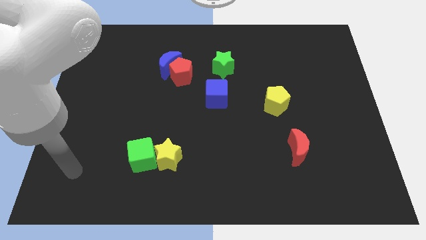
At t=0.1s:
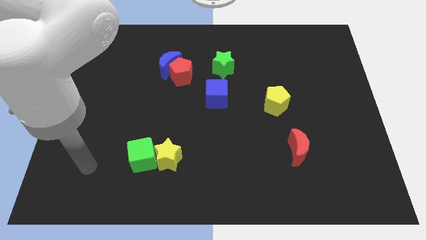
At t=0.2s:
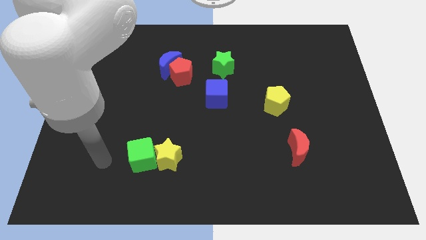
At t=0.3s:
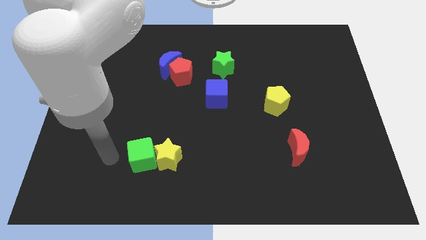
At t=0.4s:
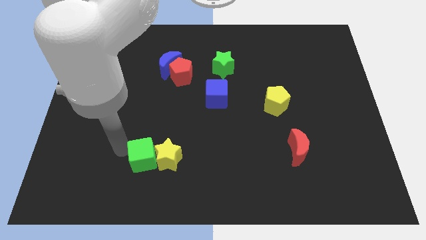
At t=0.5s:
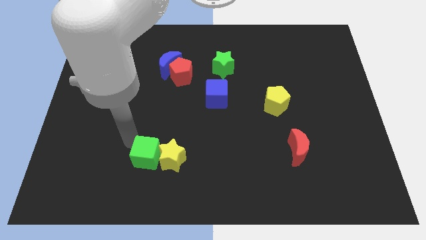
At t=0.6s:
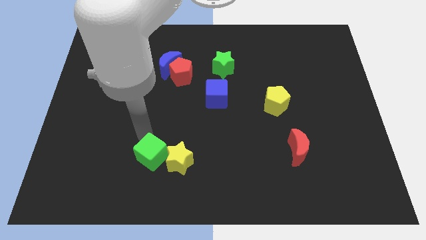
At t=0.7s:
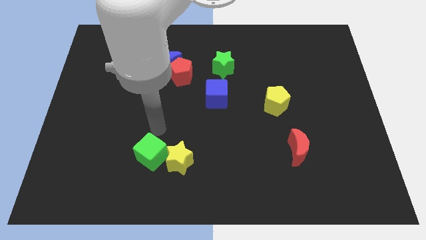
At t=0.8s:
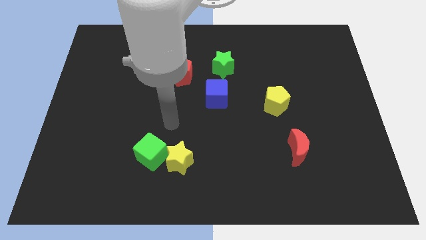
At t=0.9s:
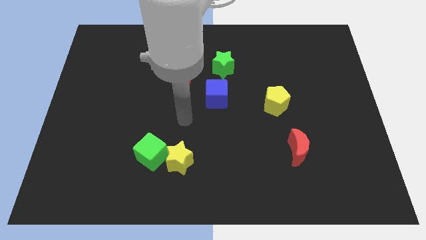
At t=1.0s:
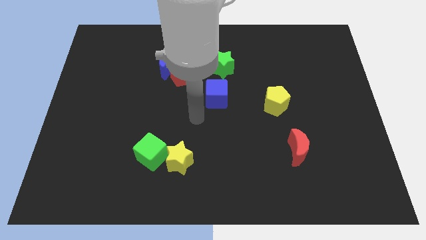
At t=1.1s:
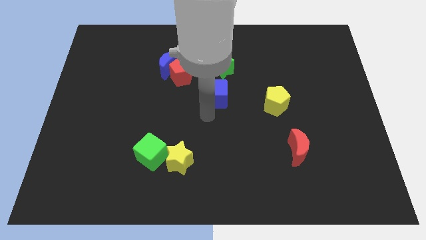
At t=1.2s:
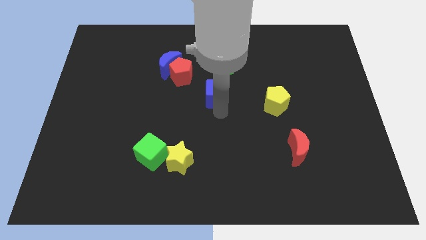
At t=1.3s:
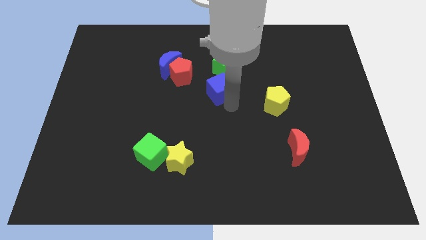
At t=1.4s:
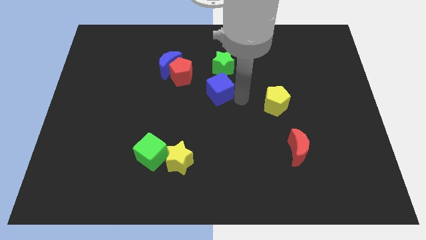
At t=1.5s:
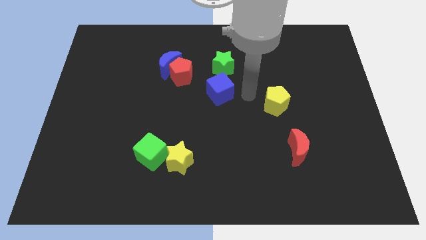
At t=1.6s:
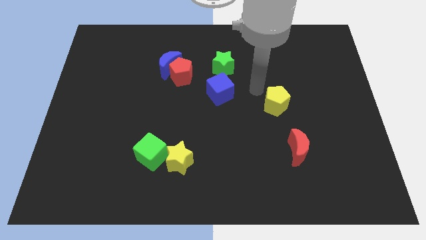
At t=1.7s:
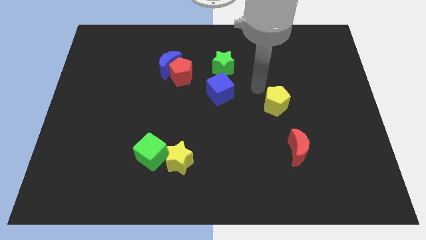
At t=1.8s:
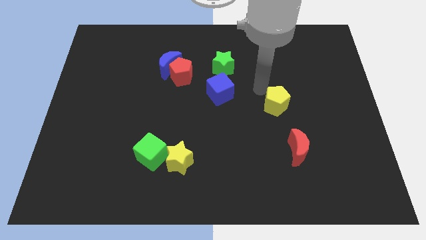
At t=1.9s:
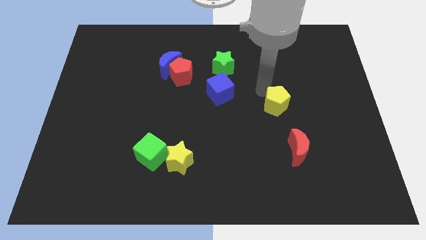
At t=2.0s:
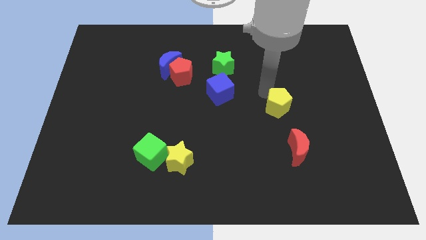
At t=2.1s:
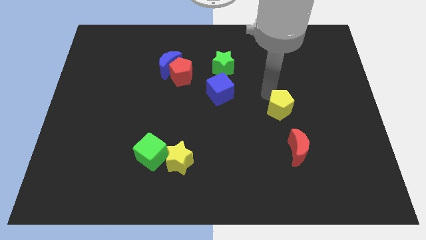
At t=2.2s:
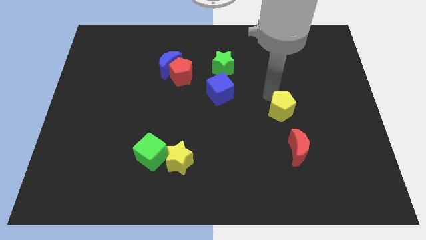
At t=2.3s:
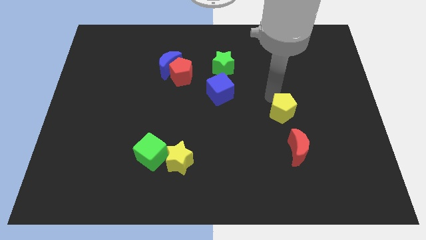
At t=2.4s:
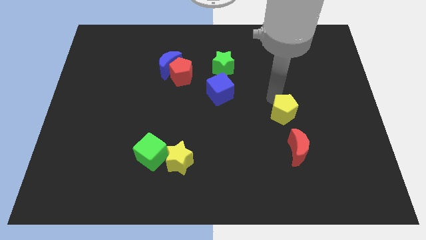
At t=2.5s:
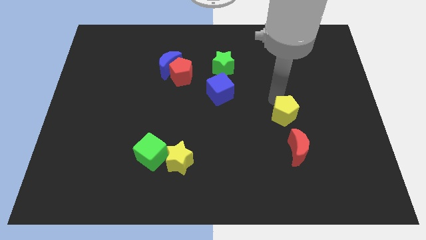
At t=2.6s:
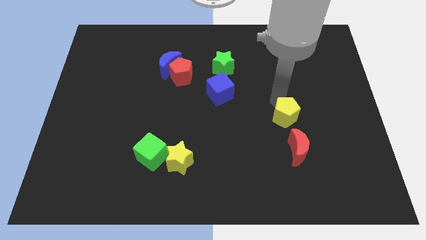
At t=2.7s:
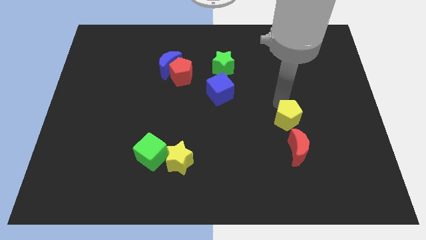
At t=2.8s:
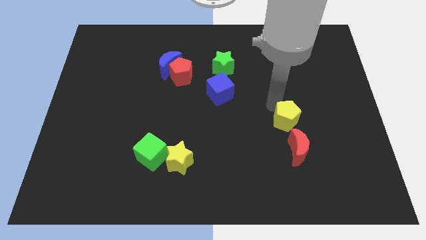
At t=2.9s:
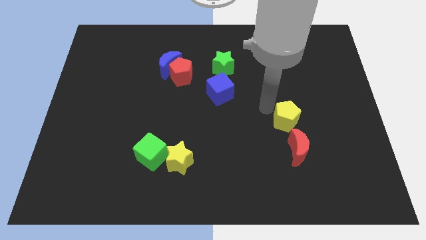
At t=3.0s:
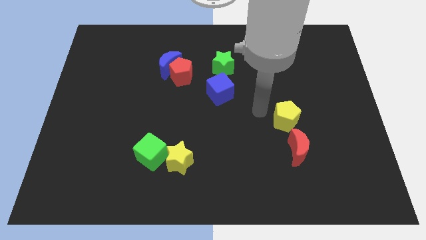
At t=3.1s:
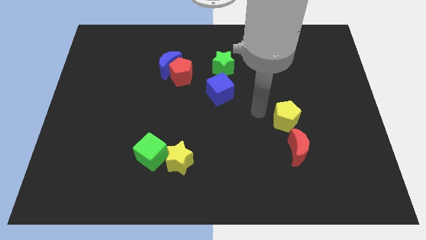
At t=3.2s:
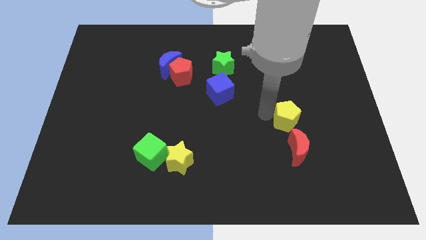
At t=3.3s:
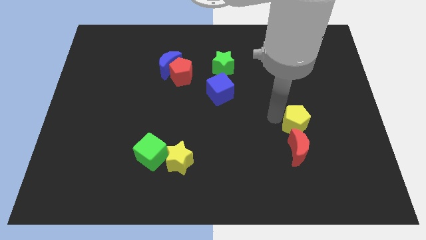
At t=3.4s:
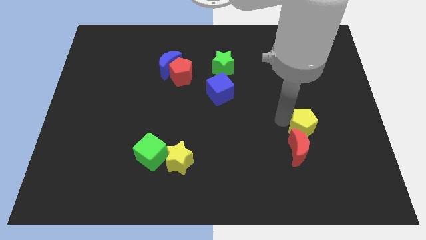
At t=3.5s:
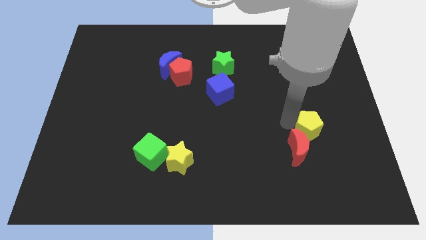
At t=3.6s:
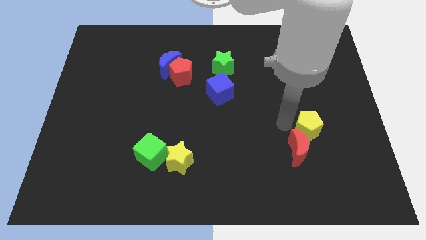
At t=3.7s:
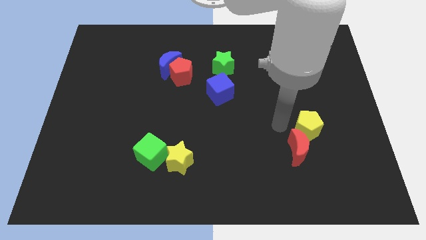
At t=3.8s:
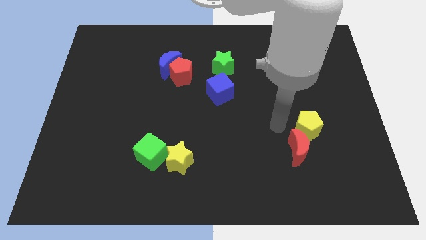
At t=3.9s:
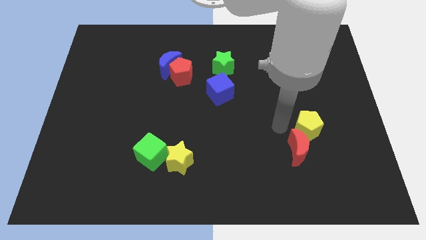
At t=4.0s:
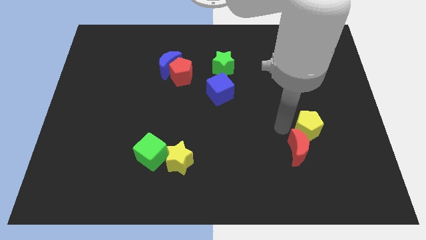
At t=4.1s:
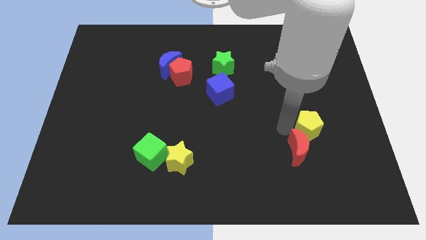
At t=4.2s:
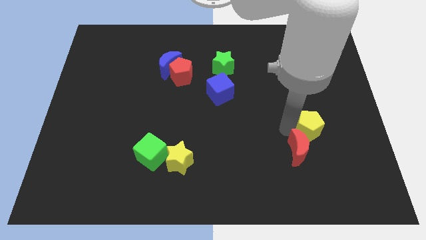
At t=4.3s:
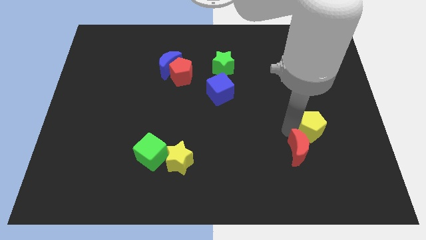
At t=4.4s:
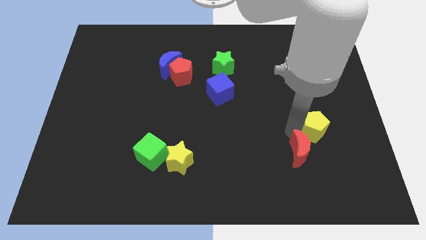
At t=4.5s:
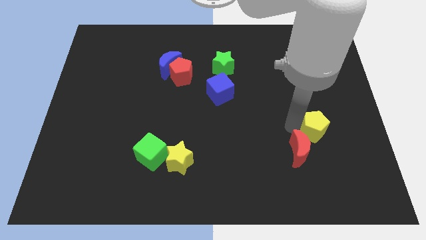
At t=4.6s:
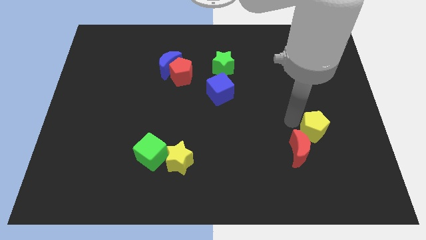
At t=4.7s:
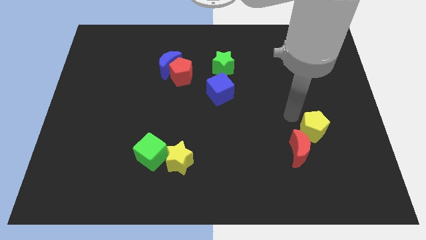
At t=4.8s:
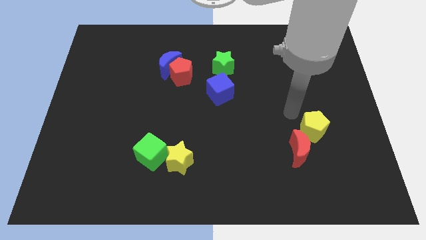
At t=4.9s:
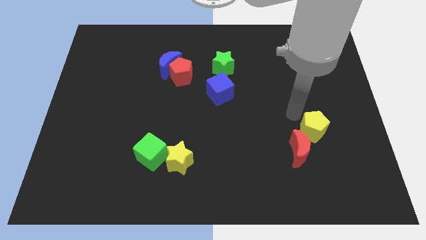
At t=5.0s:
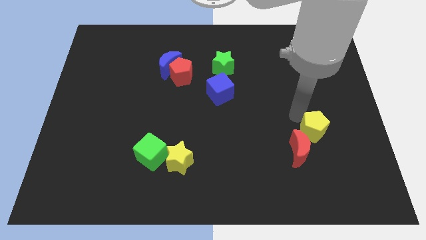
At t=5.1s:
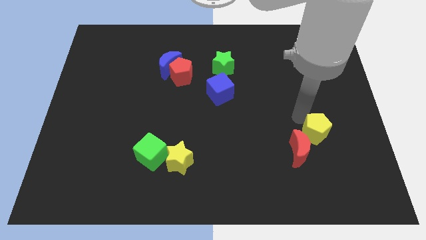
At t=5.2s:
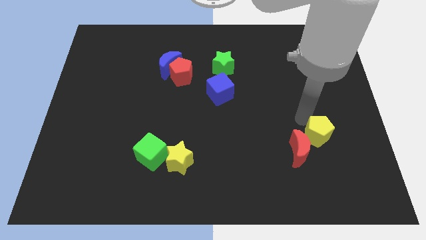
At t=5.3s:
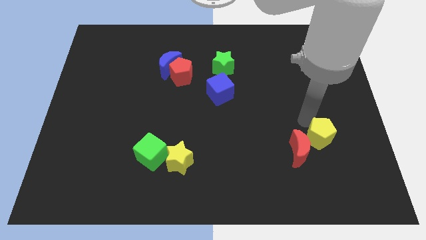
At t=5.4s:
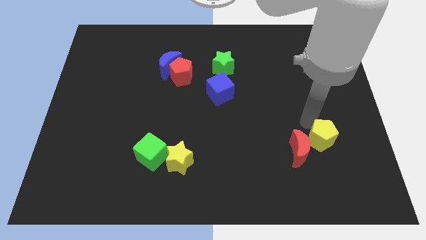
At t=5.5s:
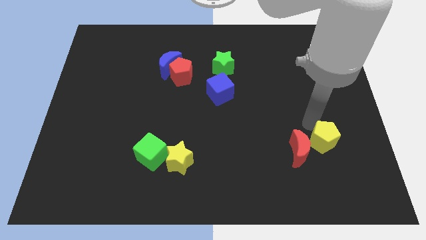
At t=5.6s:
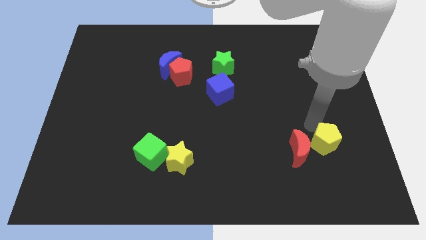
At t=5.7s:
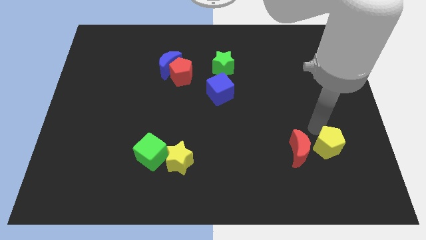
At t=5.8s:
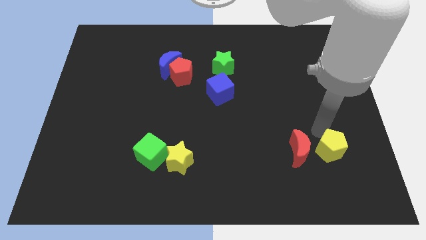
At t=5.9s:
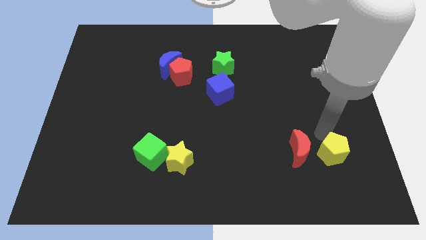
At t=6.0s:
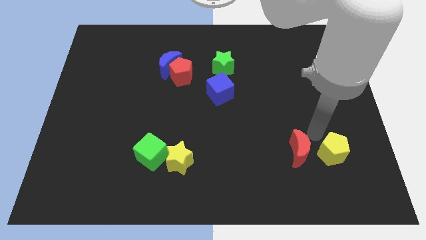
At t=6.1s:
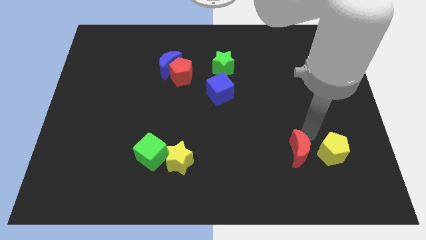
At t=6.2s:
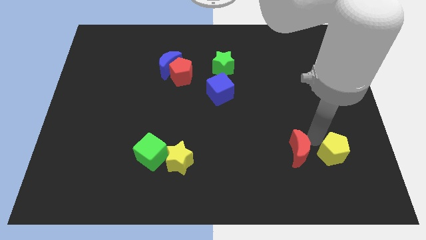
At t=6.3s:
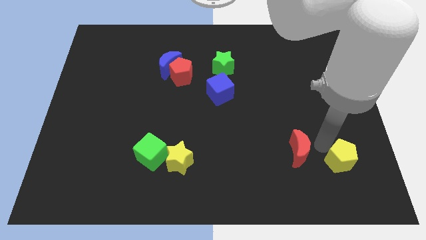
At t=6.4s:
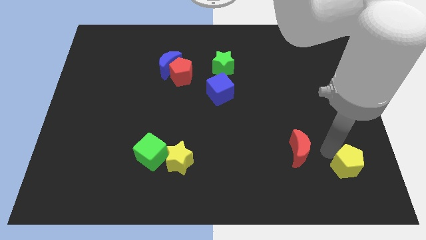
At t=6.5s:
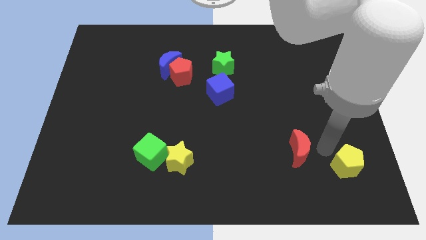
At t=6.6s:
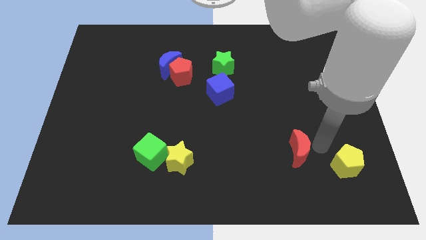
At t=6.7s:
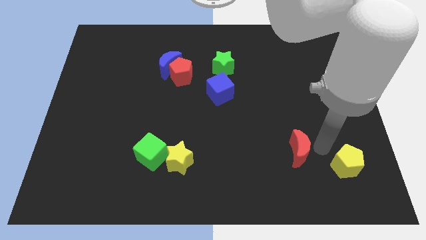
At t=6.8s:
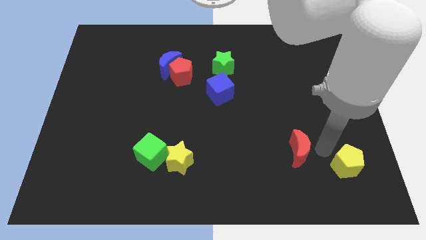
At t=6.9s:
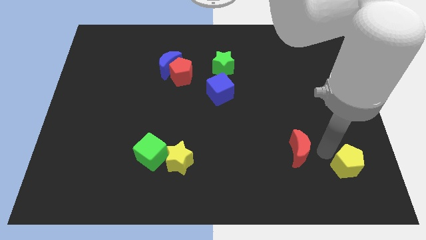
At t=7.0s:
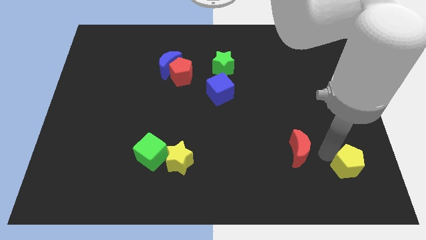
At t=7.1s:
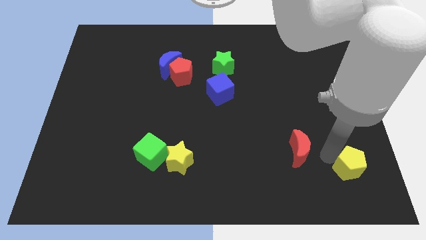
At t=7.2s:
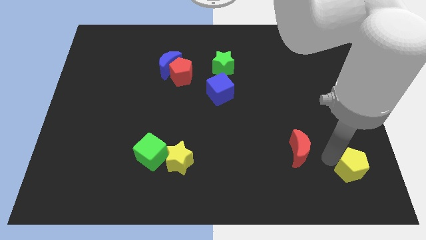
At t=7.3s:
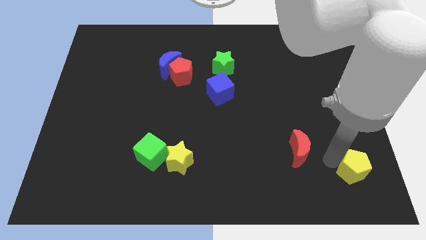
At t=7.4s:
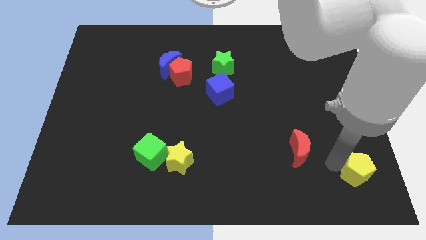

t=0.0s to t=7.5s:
slide the yellow pentagon to the lower right corner
